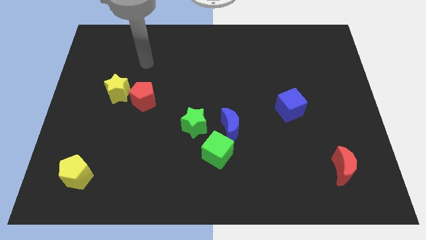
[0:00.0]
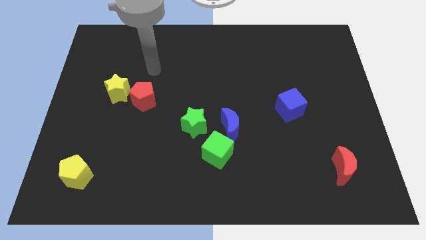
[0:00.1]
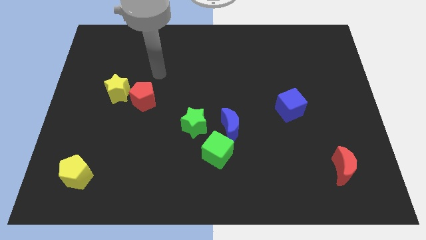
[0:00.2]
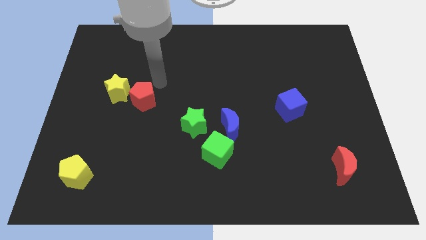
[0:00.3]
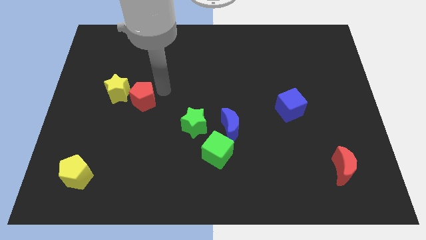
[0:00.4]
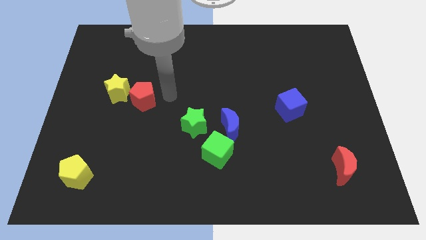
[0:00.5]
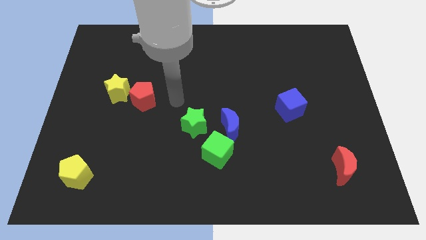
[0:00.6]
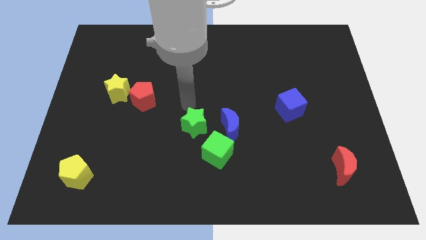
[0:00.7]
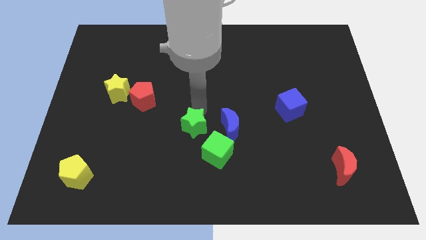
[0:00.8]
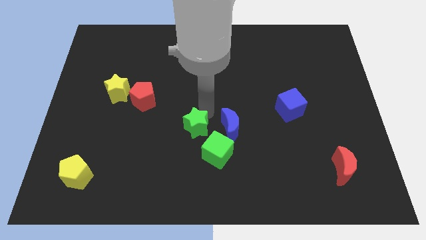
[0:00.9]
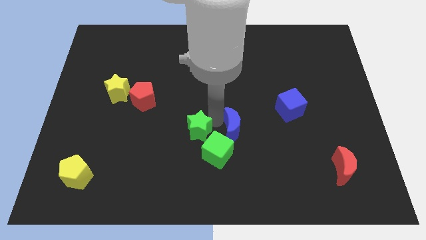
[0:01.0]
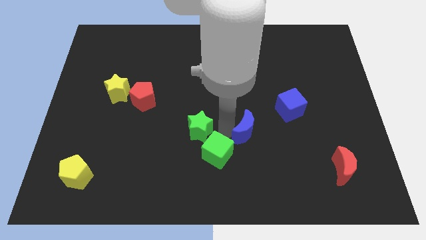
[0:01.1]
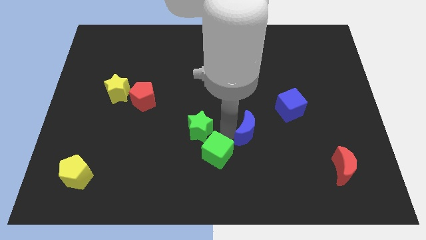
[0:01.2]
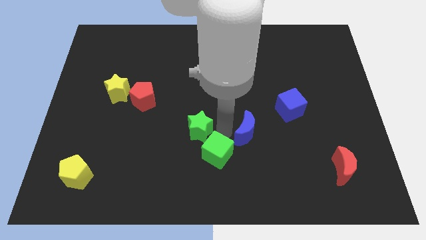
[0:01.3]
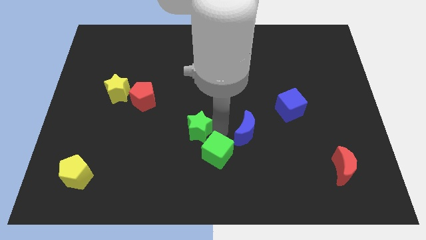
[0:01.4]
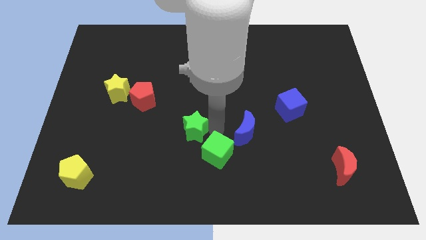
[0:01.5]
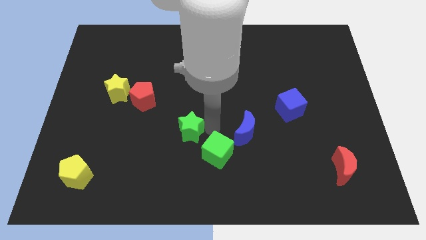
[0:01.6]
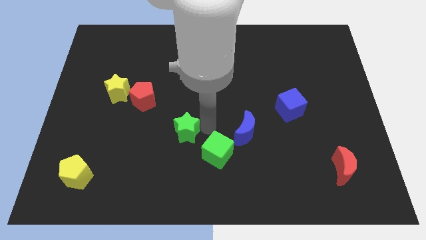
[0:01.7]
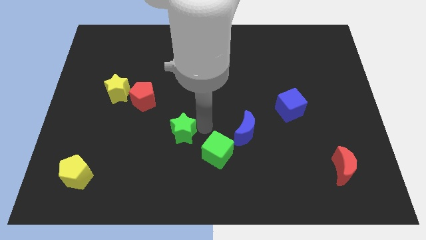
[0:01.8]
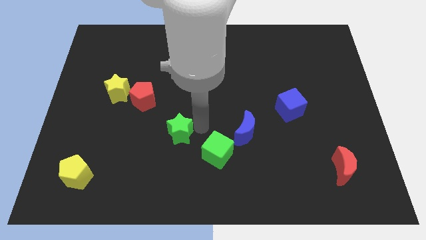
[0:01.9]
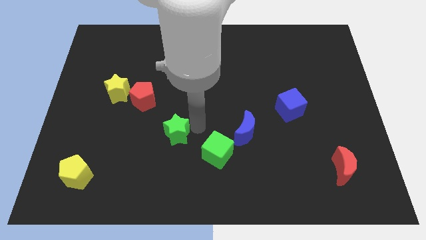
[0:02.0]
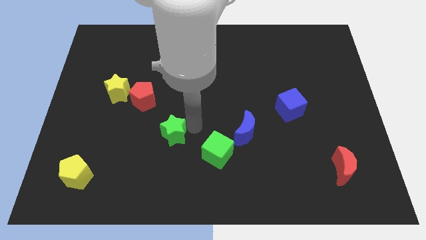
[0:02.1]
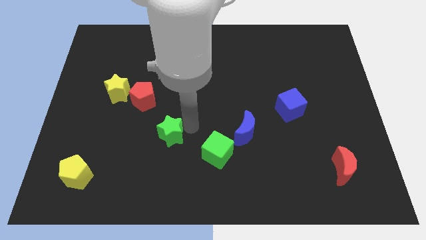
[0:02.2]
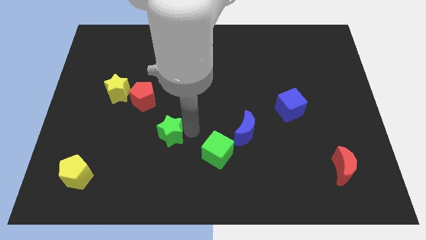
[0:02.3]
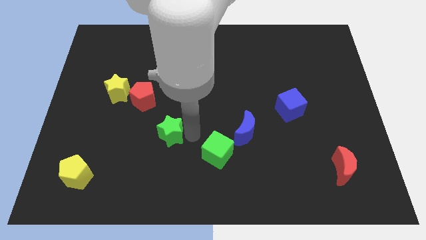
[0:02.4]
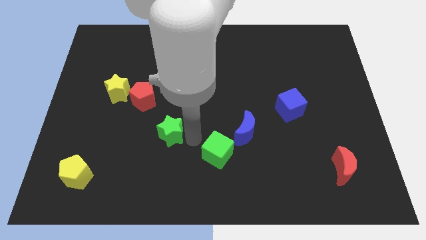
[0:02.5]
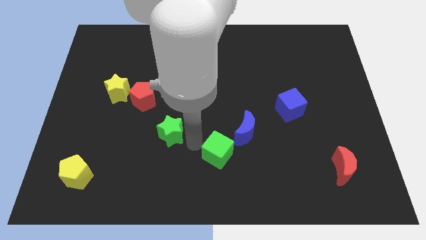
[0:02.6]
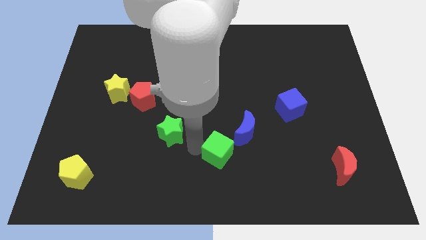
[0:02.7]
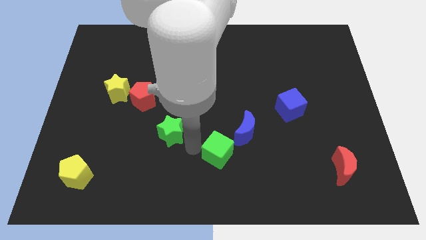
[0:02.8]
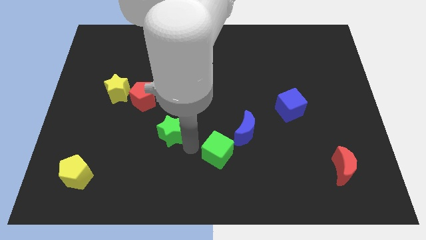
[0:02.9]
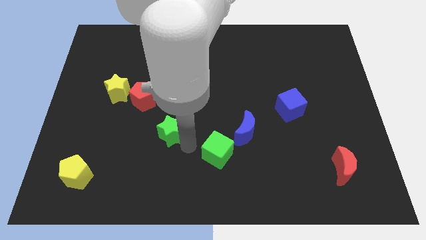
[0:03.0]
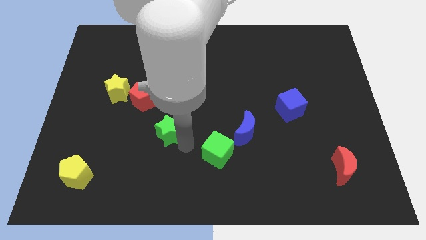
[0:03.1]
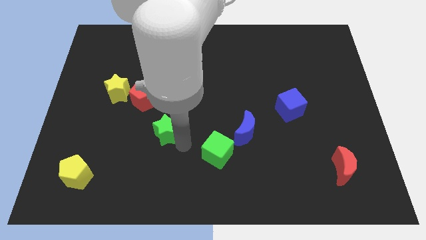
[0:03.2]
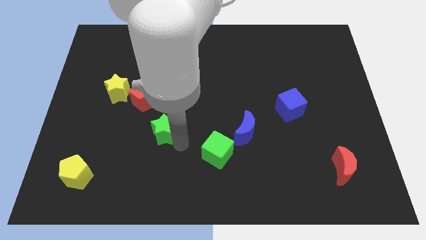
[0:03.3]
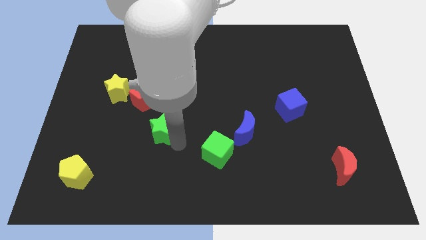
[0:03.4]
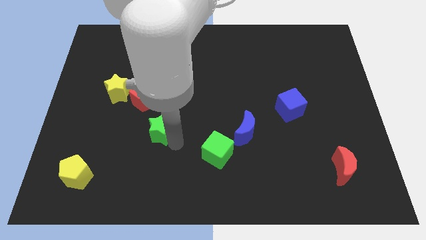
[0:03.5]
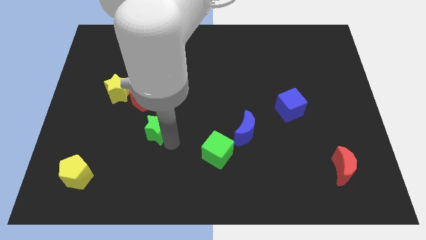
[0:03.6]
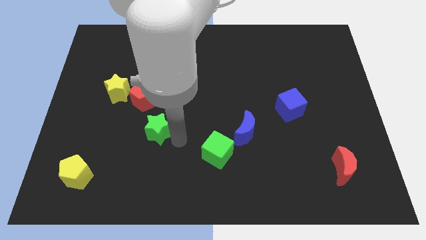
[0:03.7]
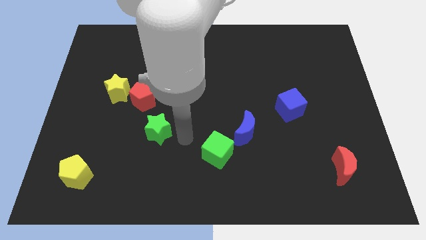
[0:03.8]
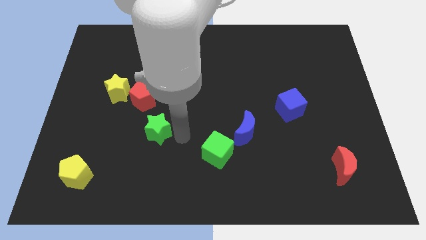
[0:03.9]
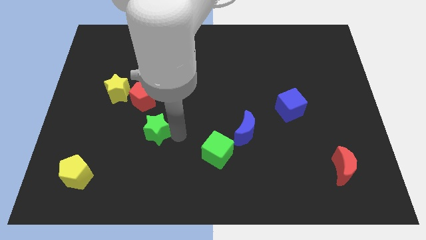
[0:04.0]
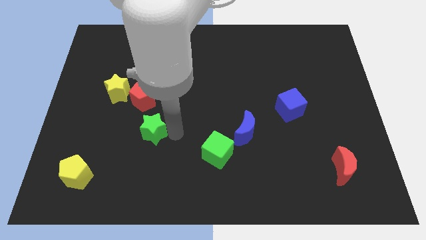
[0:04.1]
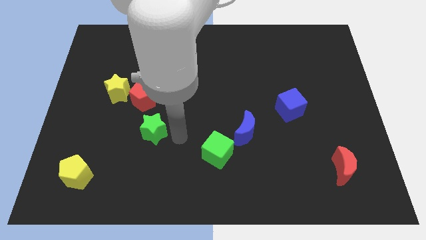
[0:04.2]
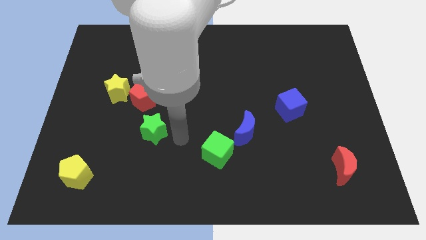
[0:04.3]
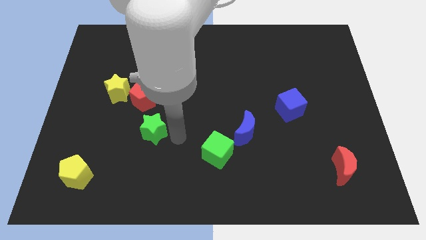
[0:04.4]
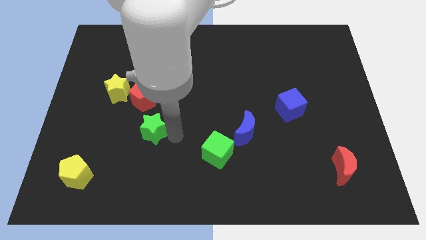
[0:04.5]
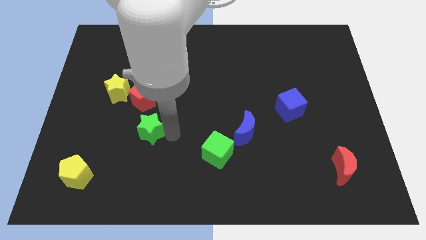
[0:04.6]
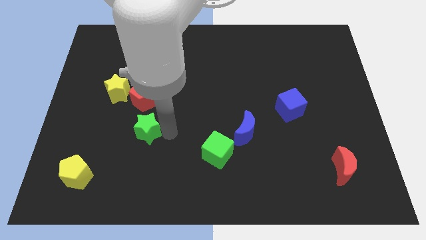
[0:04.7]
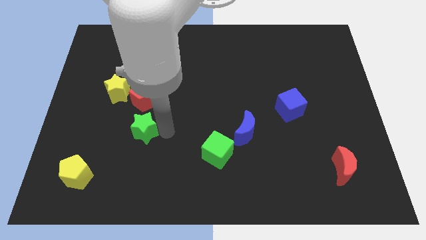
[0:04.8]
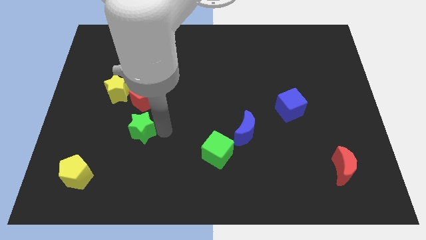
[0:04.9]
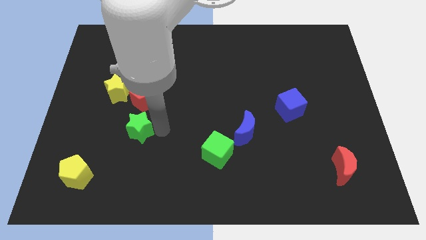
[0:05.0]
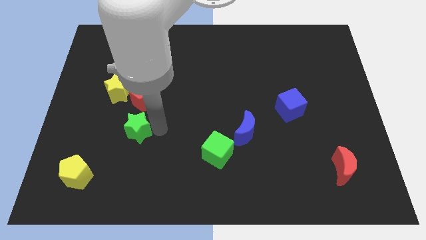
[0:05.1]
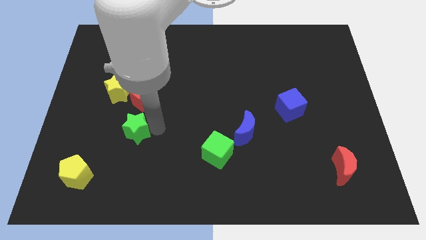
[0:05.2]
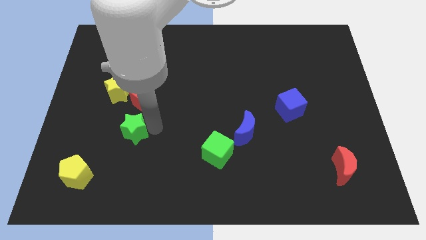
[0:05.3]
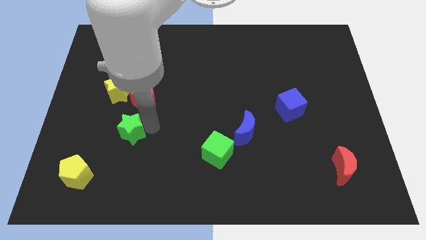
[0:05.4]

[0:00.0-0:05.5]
slide the green star below the yellow star

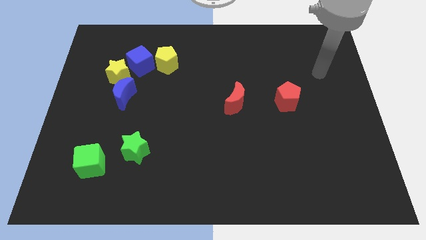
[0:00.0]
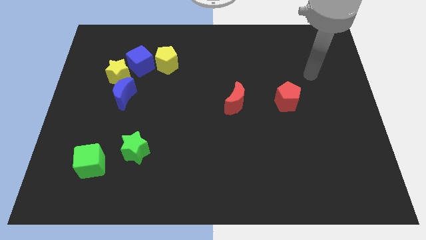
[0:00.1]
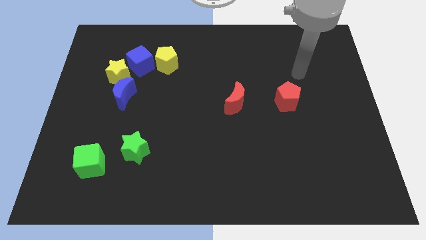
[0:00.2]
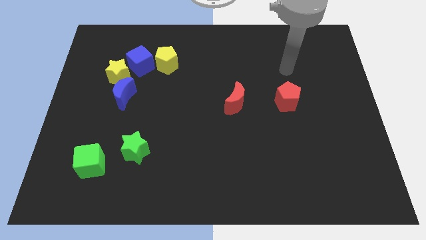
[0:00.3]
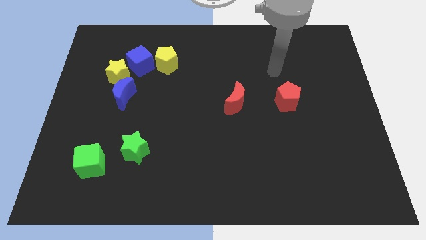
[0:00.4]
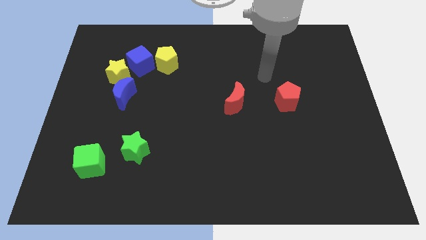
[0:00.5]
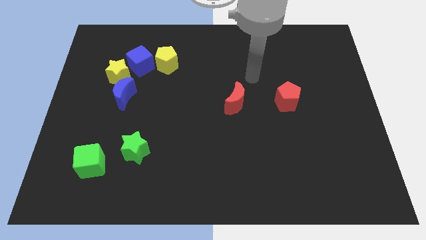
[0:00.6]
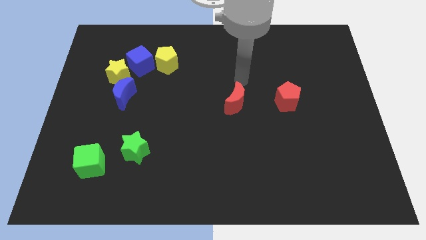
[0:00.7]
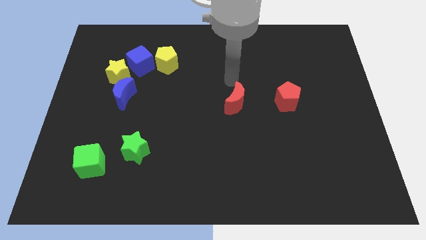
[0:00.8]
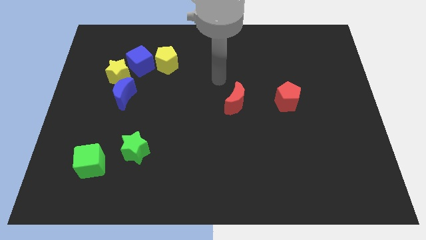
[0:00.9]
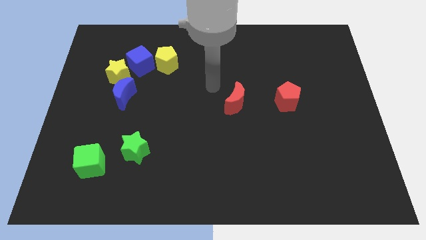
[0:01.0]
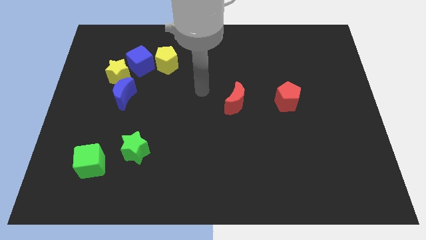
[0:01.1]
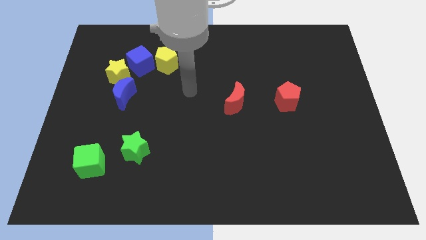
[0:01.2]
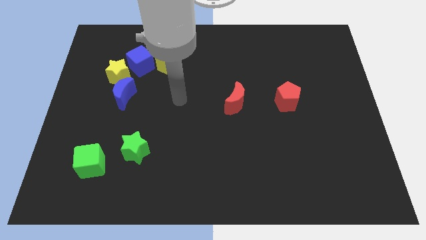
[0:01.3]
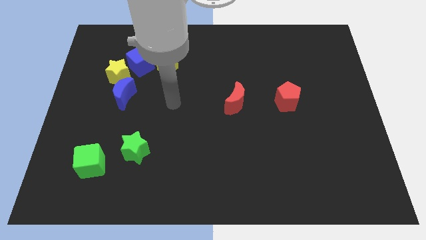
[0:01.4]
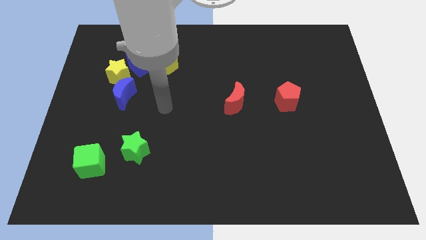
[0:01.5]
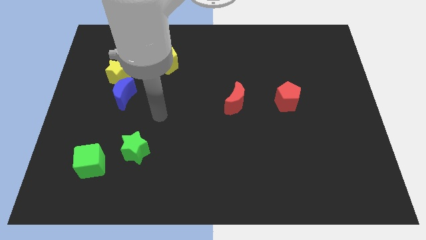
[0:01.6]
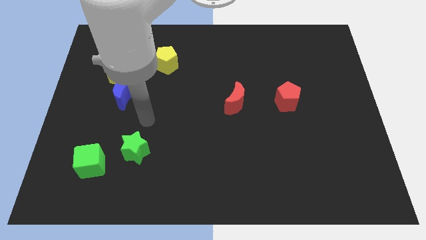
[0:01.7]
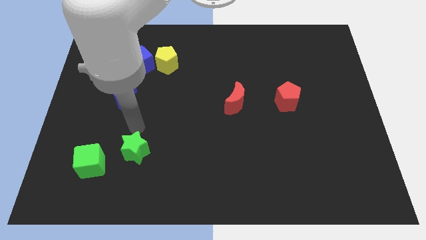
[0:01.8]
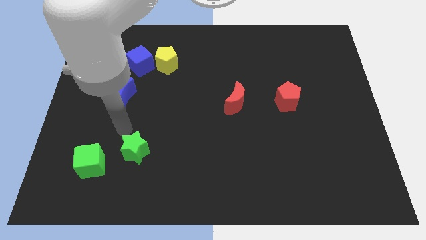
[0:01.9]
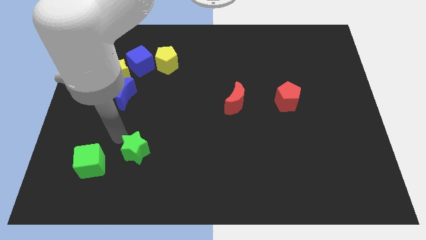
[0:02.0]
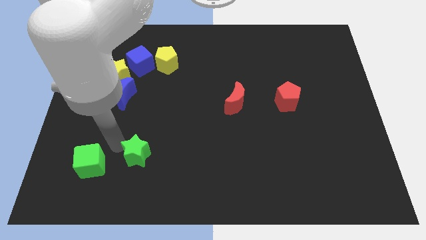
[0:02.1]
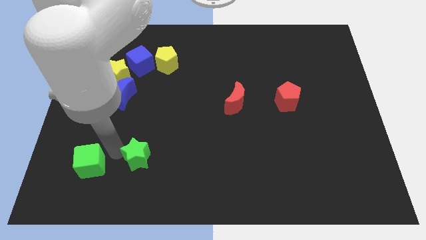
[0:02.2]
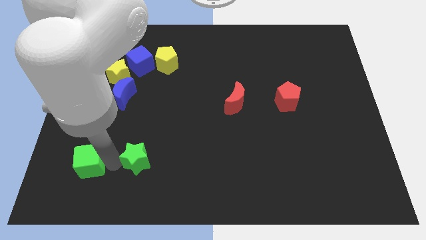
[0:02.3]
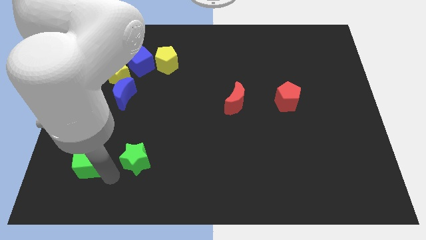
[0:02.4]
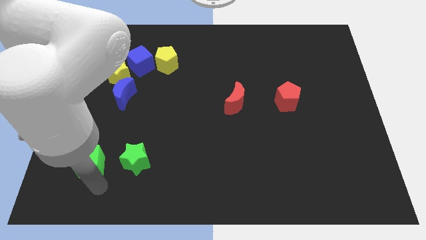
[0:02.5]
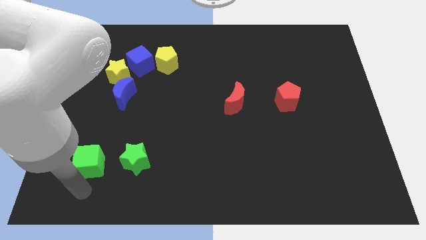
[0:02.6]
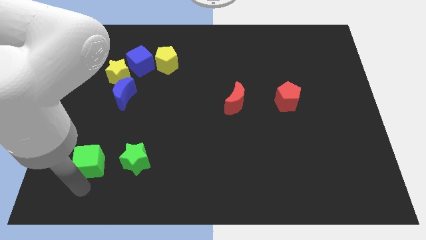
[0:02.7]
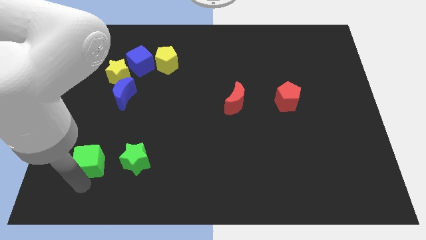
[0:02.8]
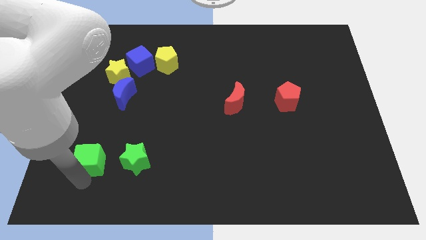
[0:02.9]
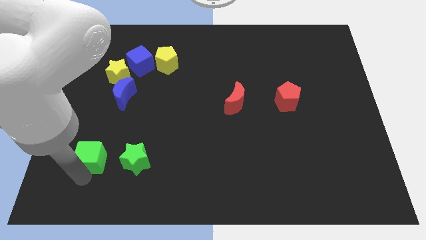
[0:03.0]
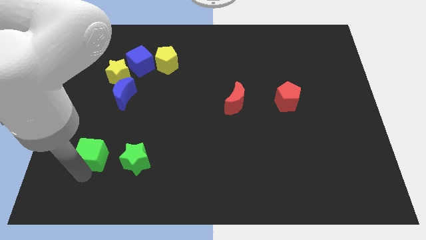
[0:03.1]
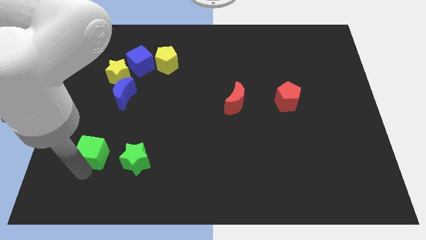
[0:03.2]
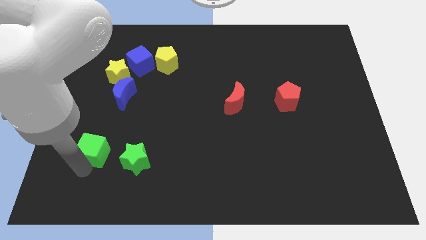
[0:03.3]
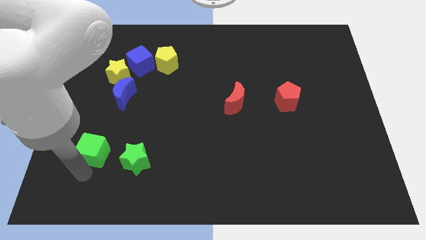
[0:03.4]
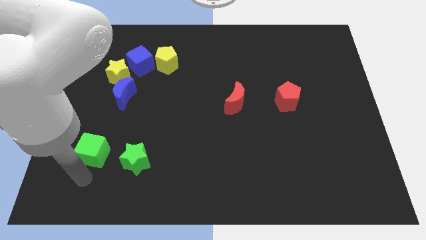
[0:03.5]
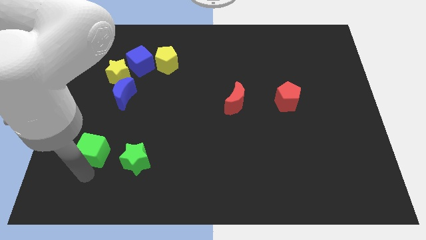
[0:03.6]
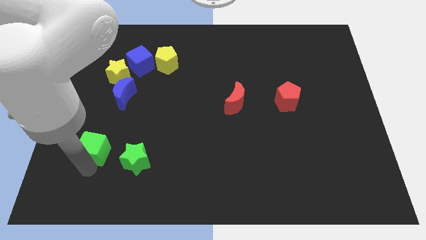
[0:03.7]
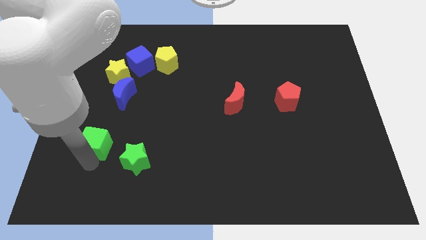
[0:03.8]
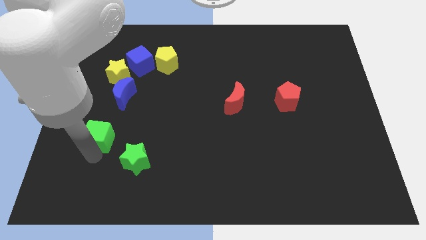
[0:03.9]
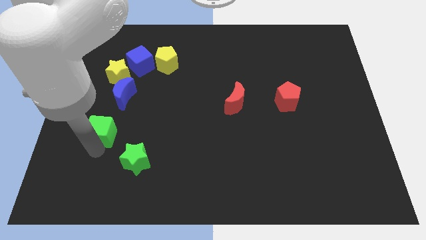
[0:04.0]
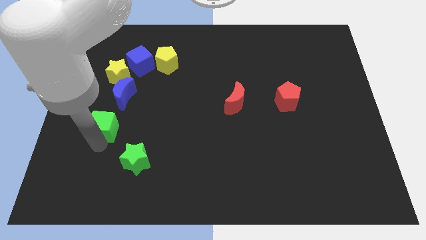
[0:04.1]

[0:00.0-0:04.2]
move the green cube to the bottom side of the yellow star
